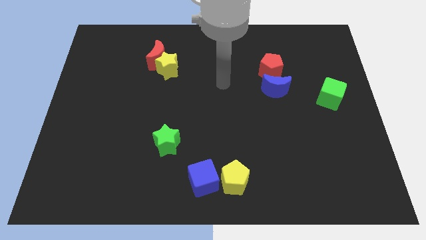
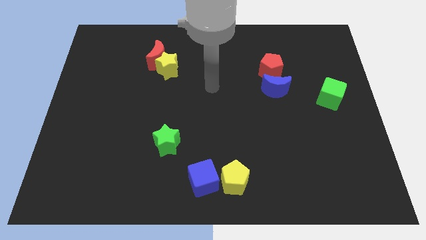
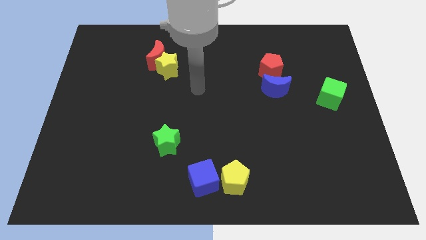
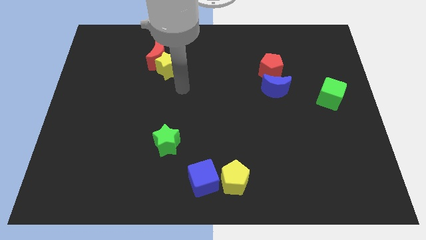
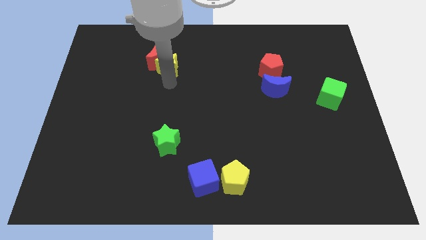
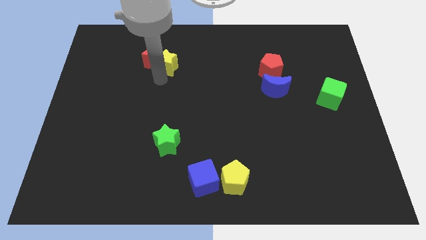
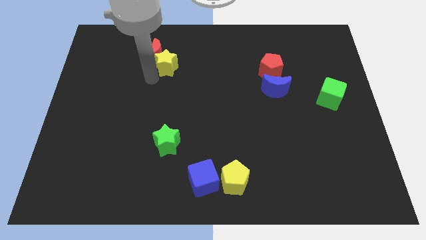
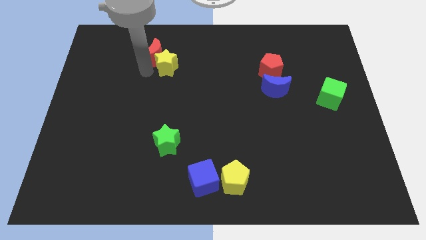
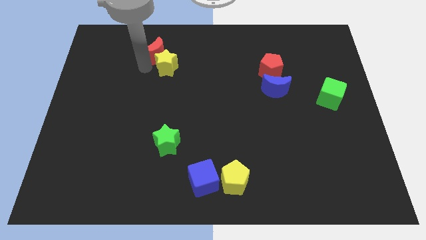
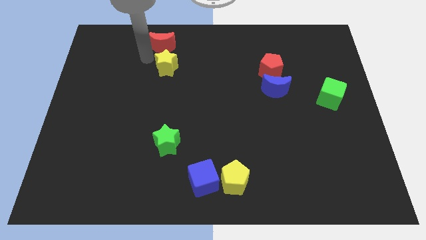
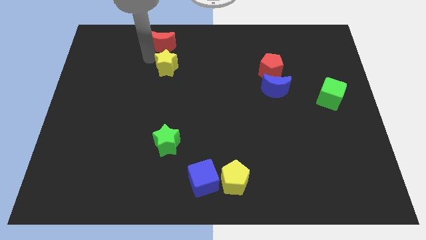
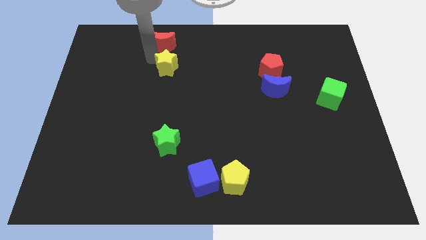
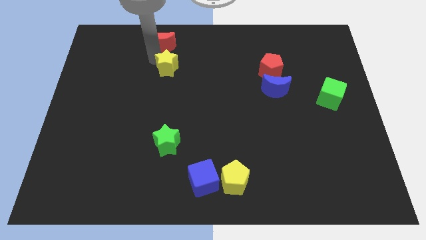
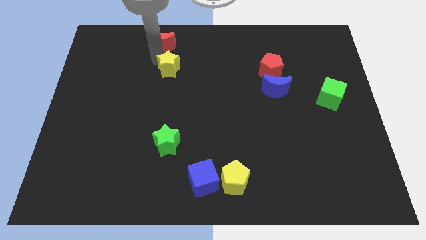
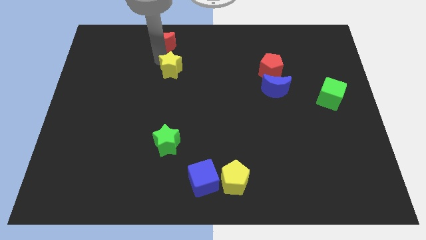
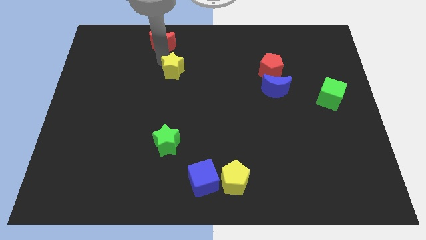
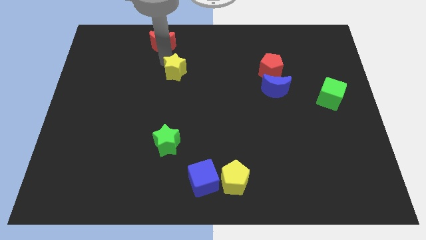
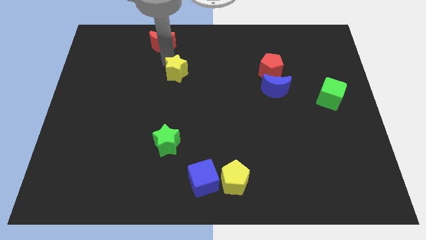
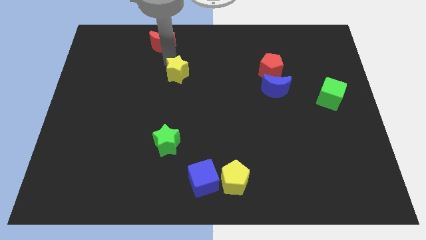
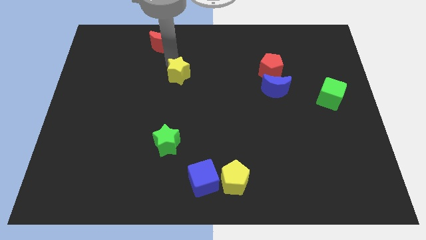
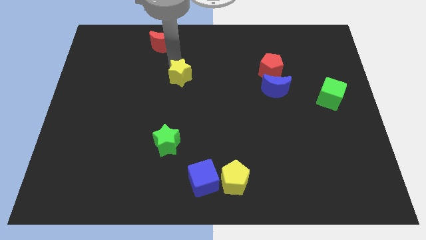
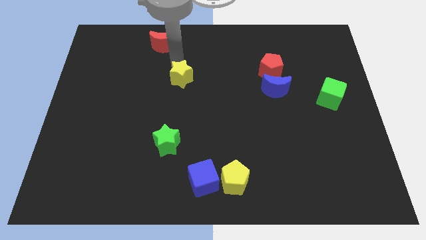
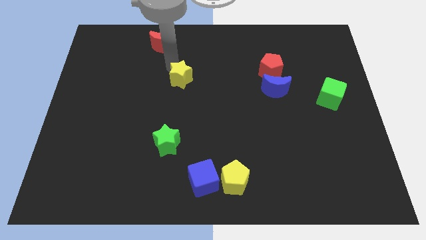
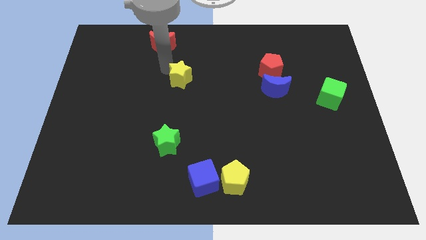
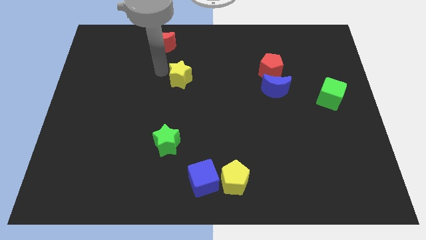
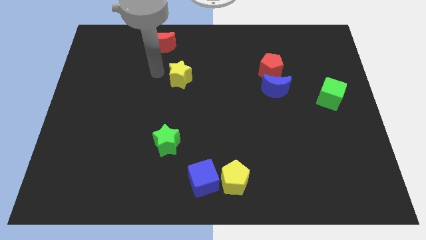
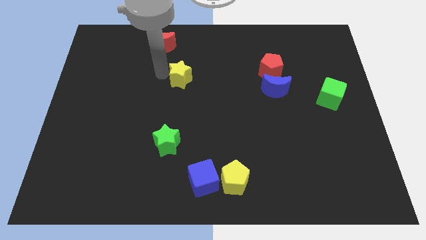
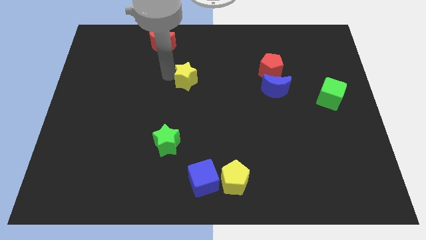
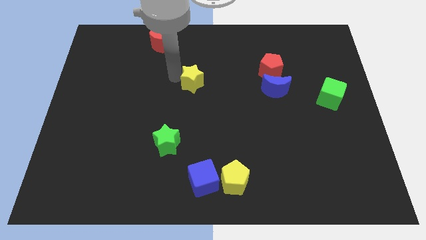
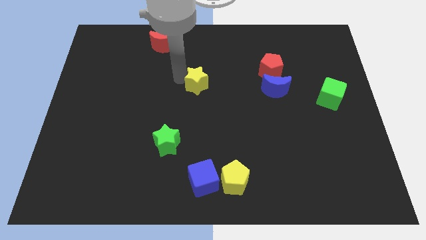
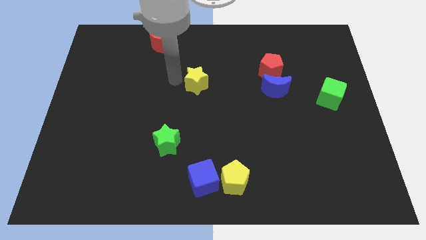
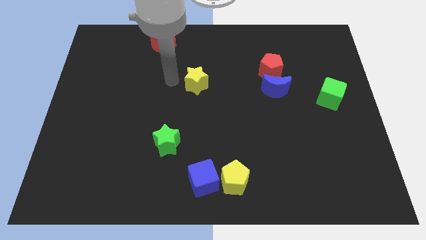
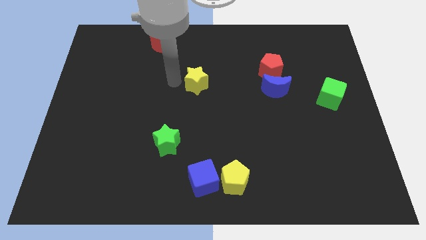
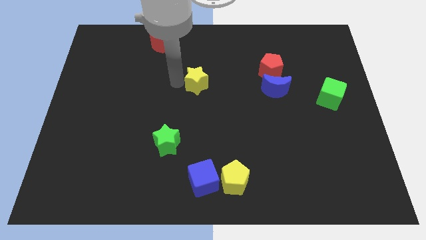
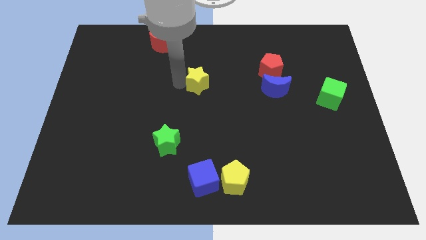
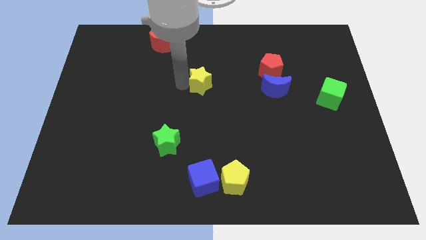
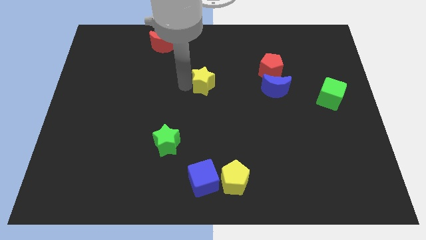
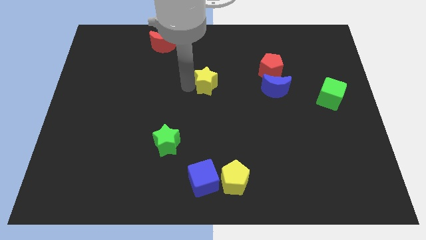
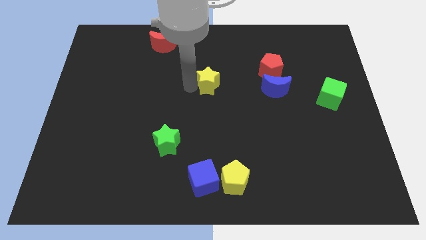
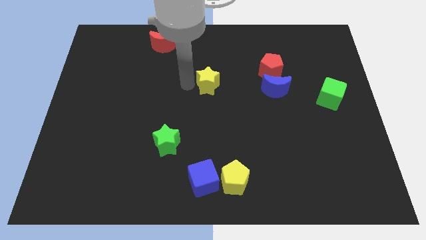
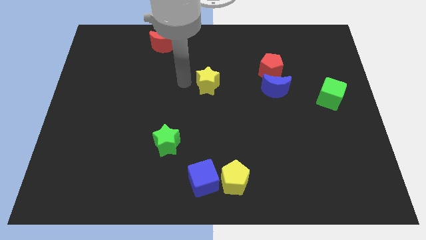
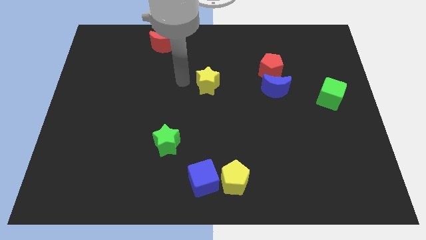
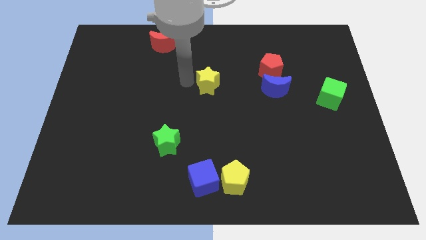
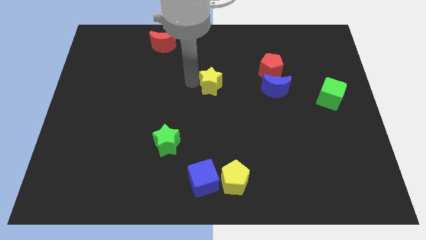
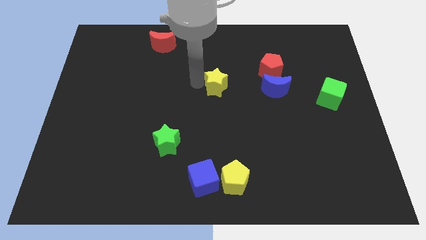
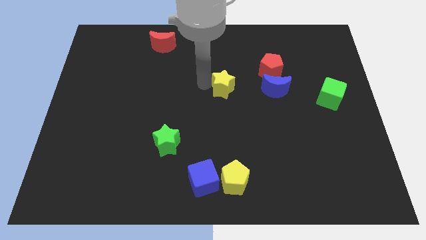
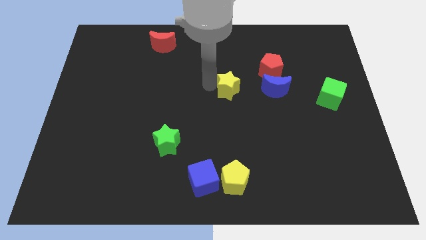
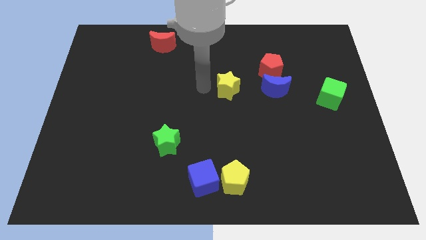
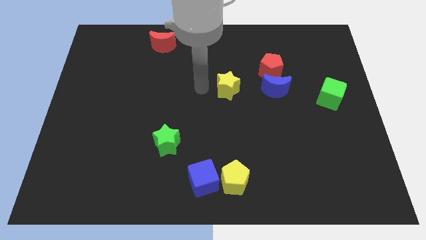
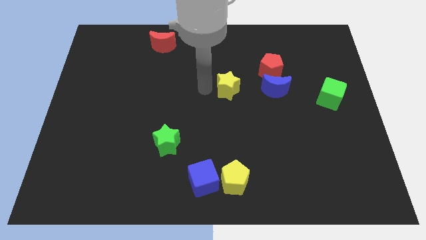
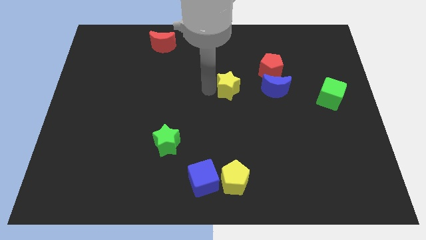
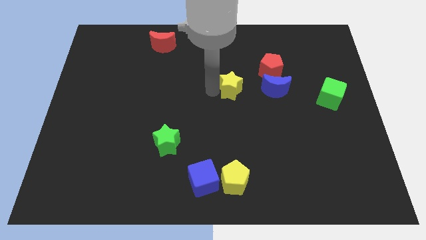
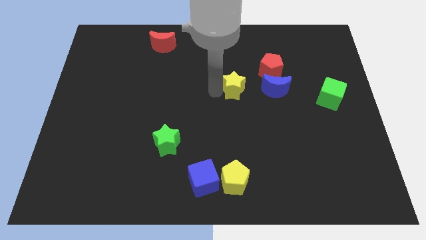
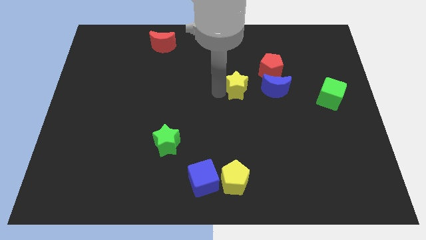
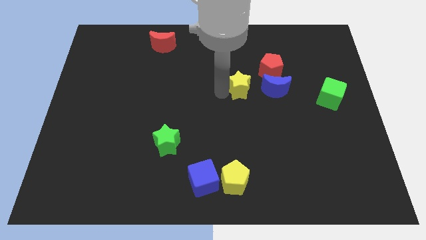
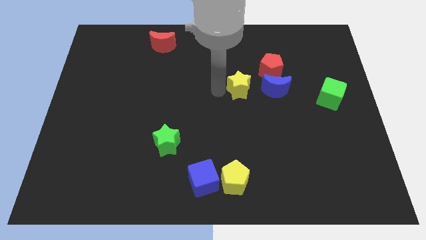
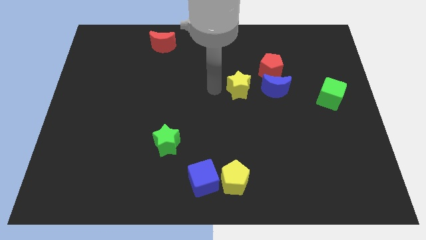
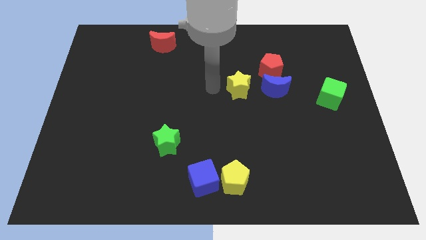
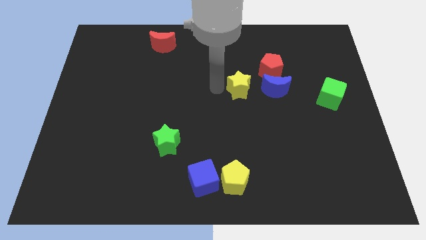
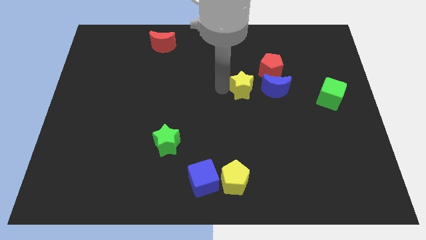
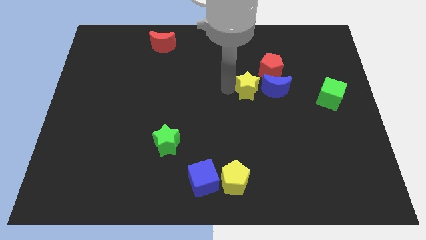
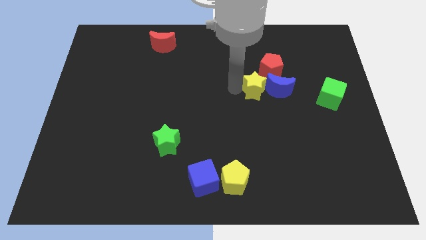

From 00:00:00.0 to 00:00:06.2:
push the yellow star close to the blue moon

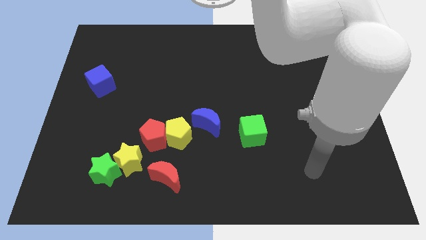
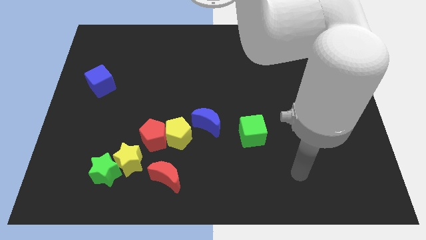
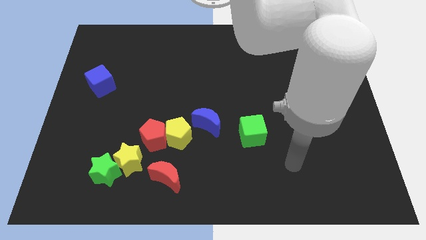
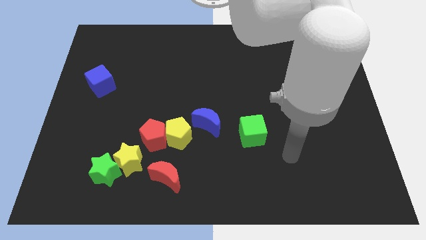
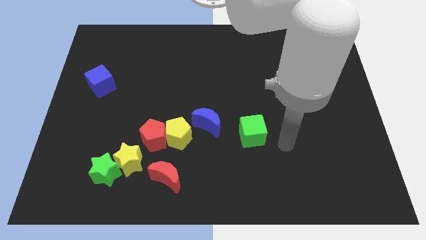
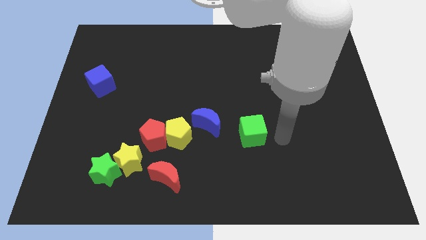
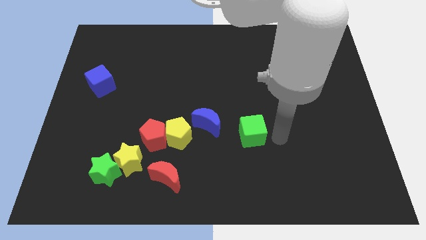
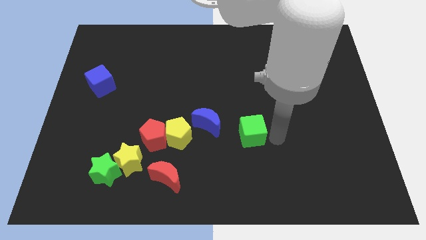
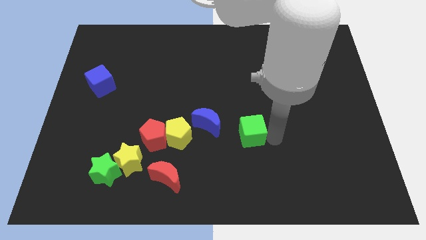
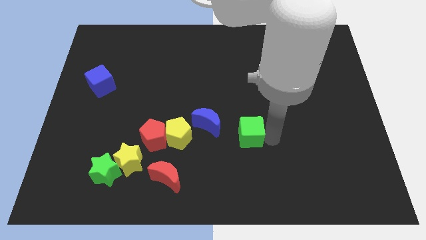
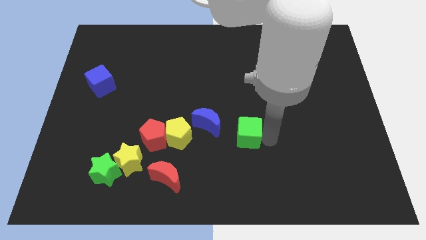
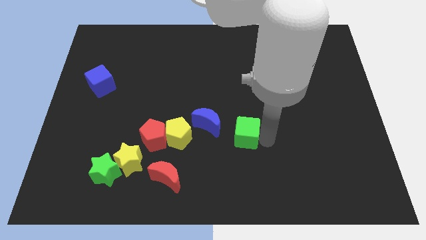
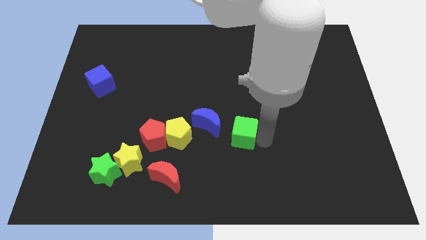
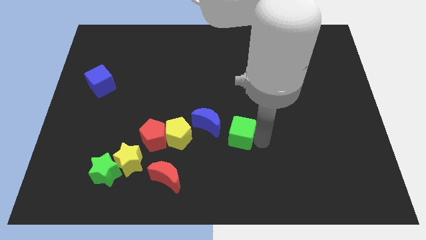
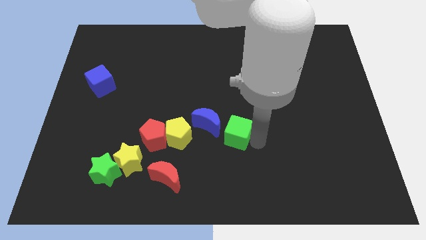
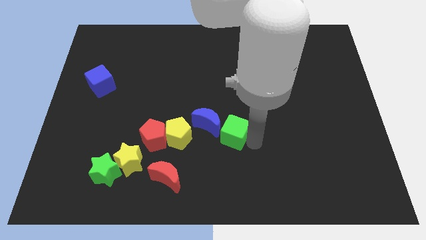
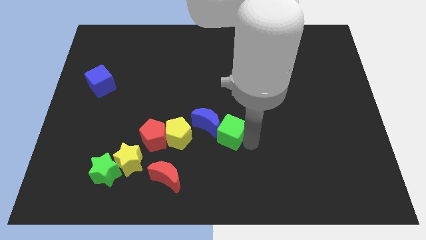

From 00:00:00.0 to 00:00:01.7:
push the green cube close to the blue moon

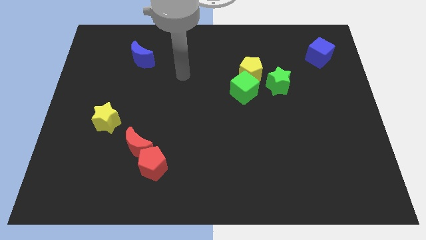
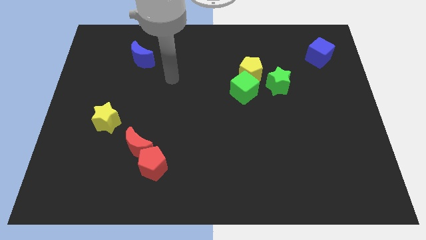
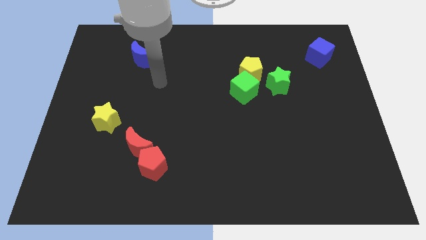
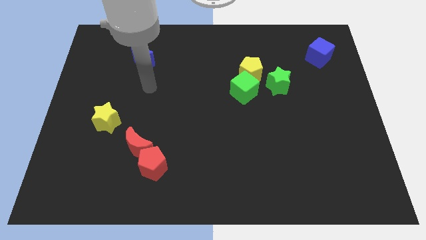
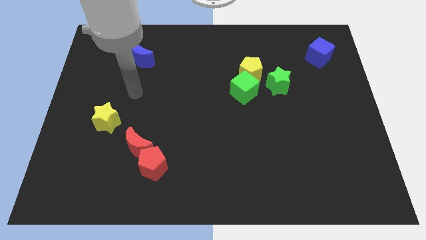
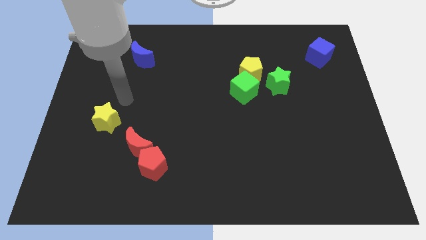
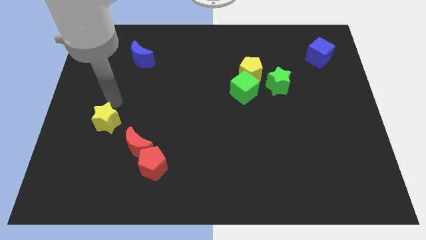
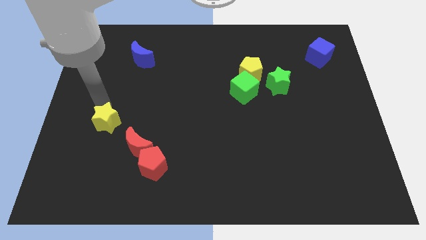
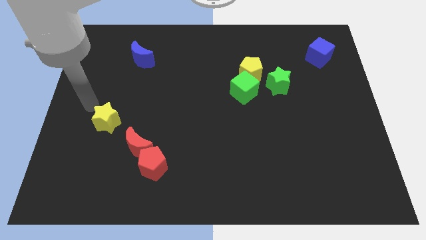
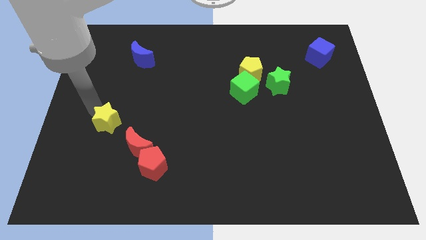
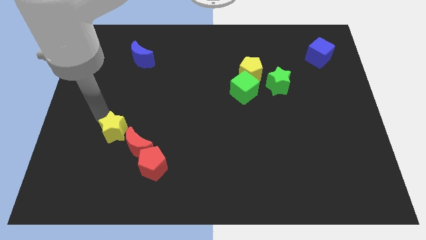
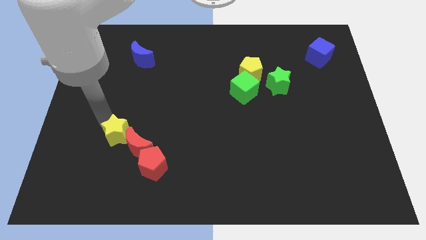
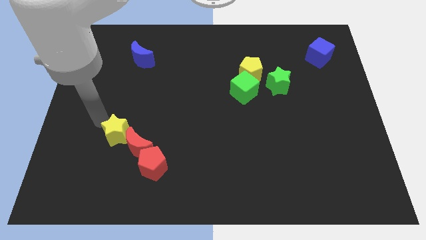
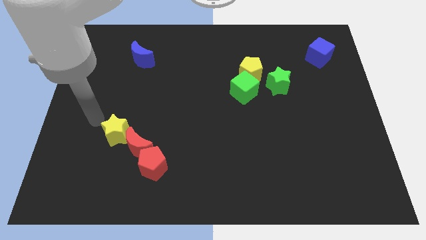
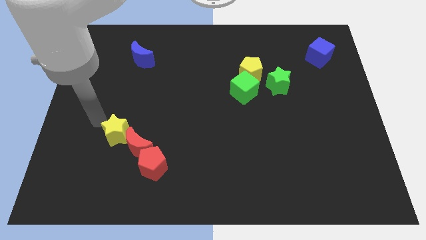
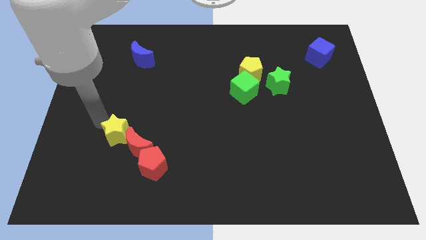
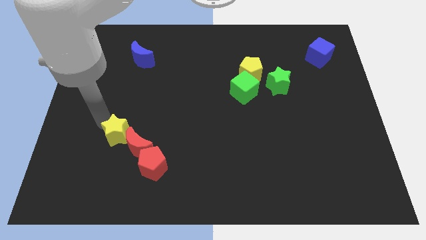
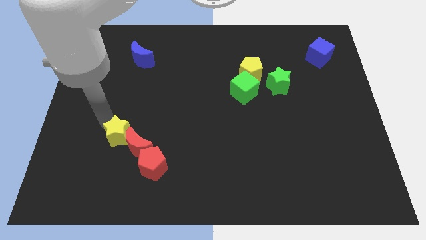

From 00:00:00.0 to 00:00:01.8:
move the yellow star towards the red moon
